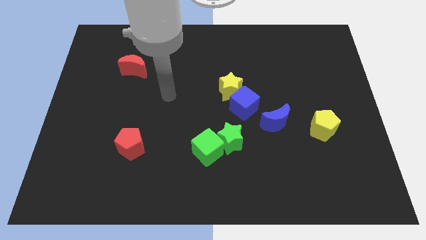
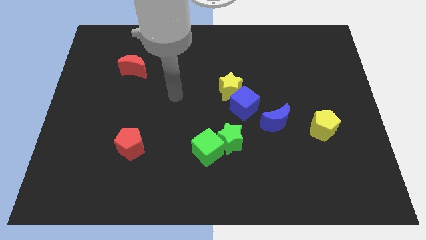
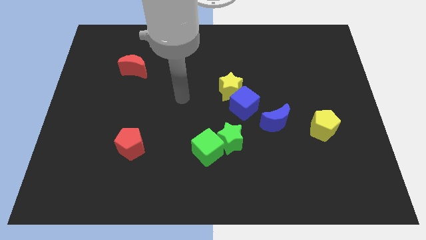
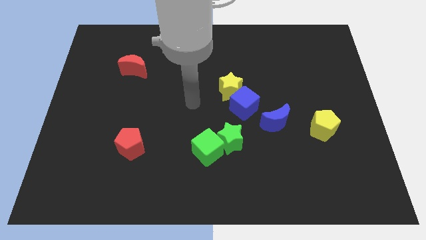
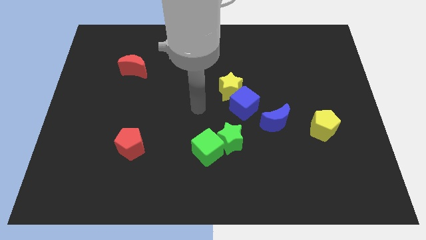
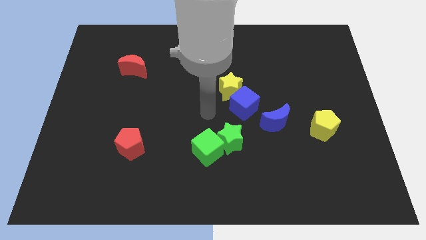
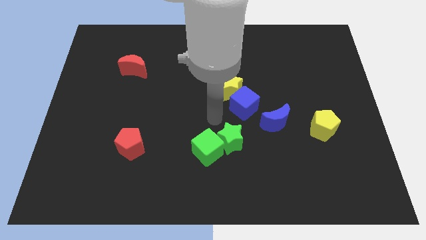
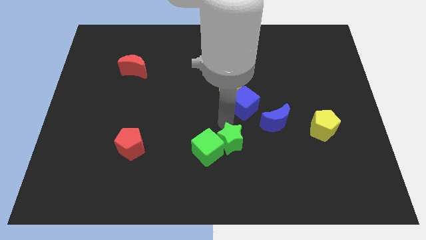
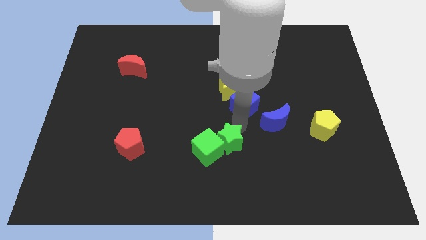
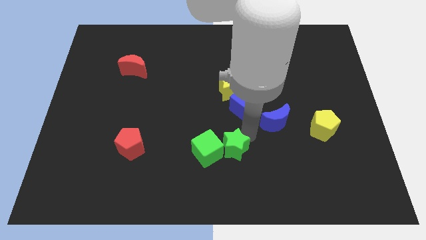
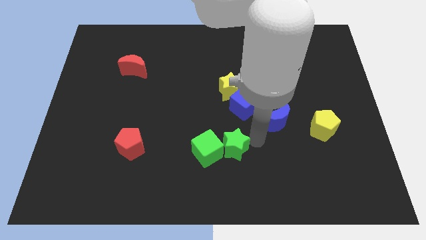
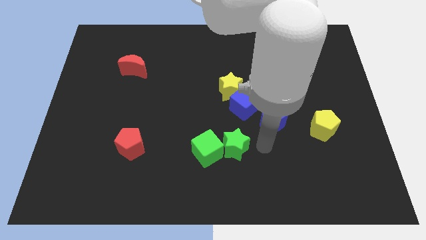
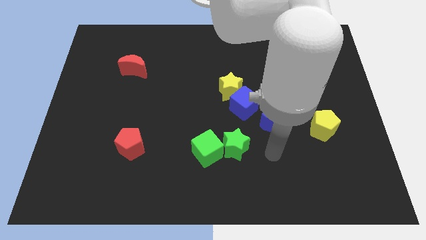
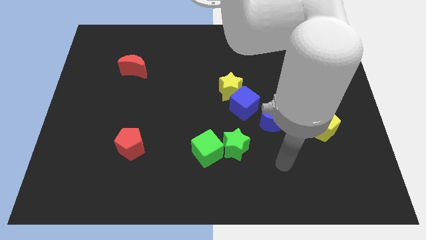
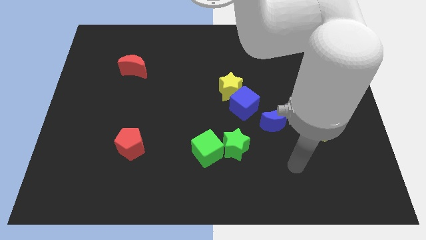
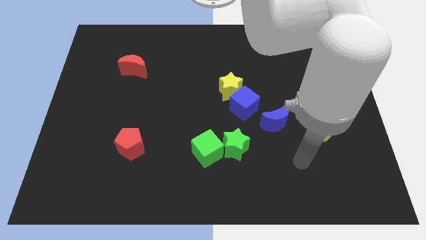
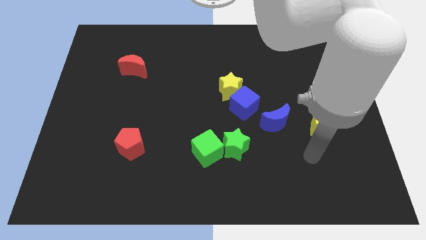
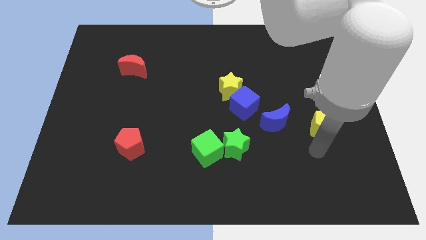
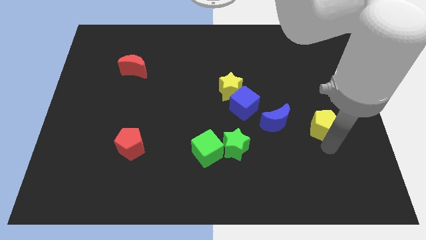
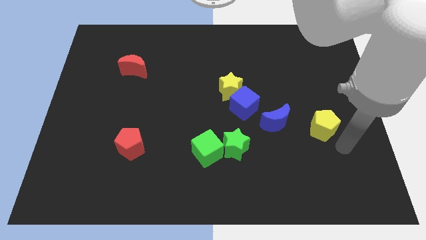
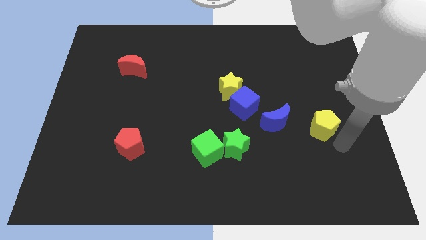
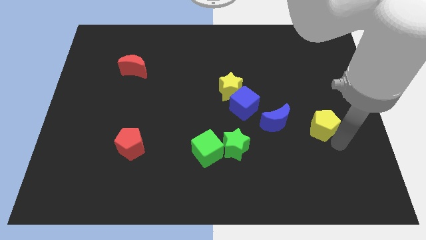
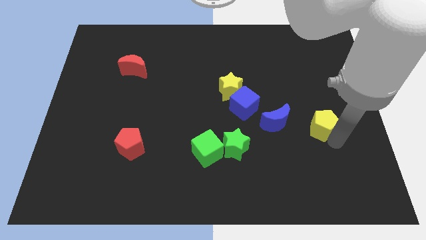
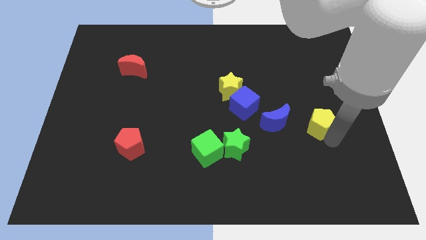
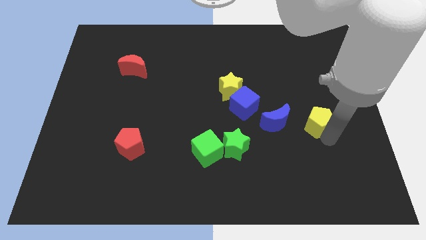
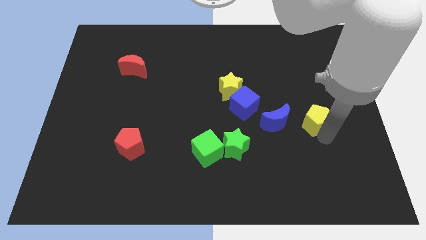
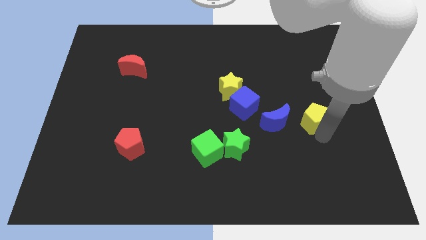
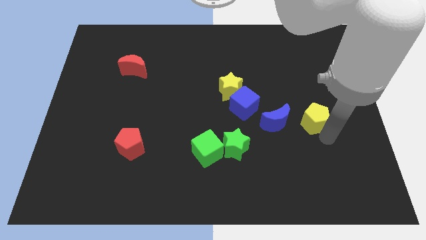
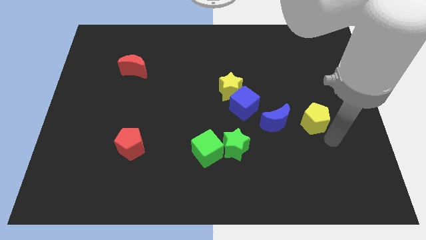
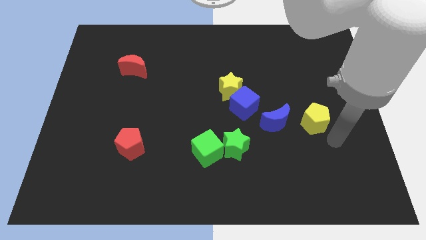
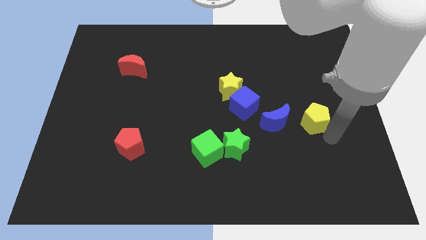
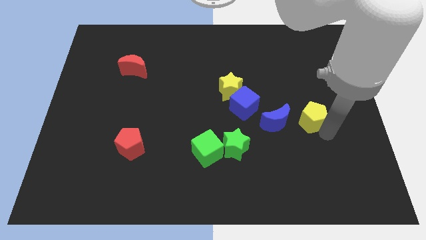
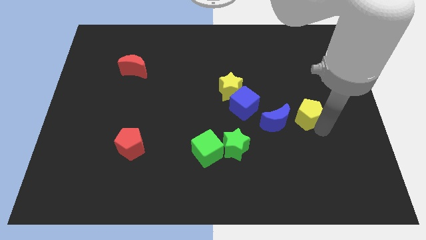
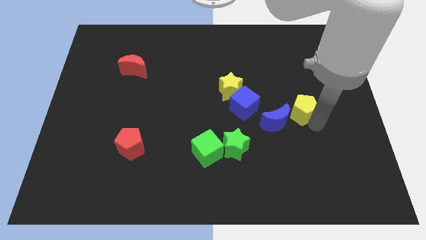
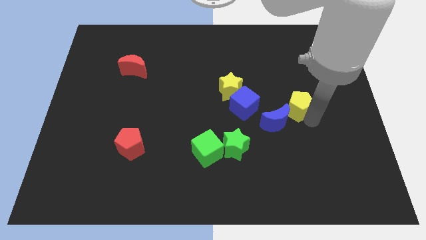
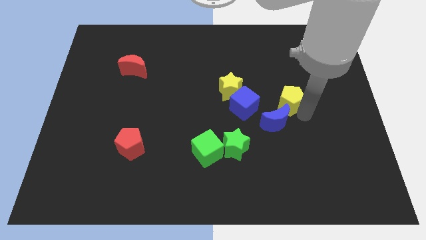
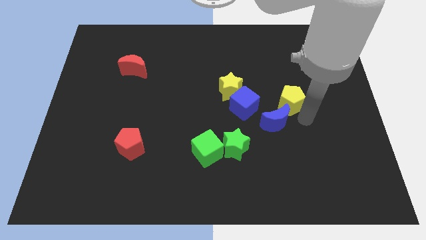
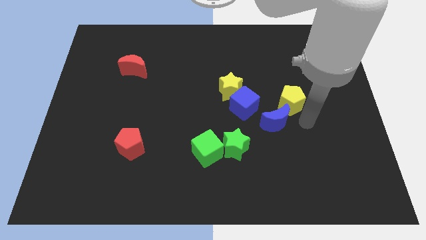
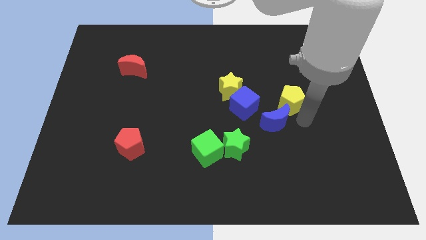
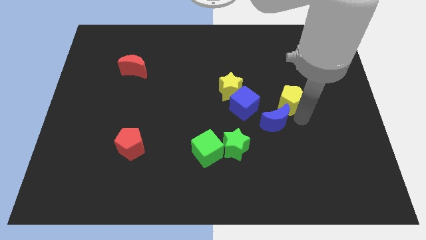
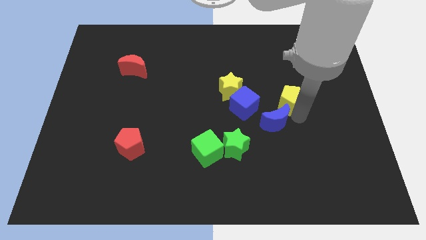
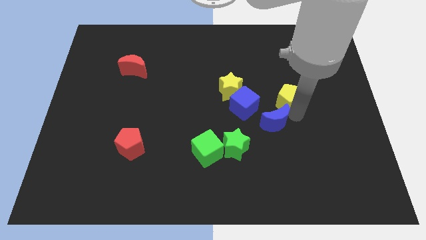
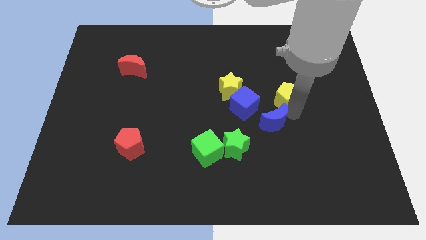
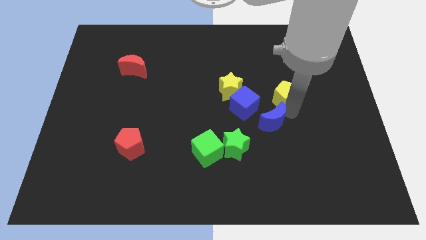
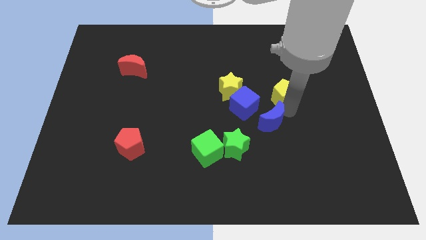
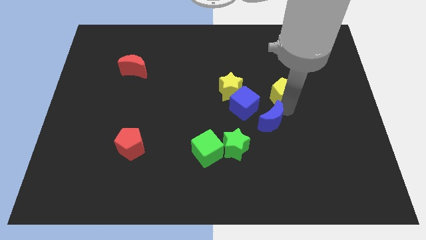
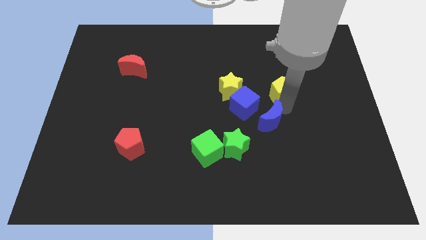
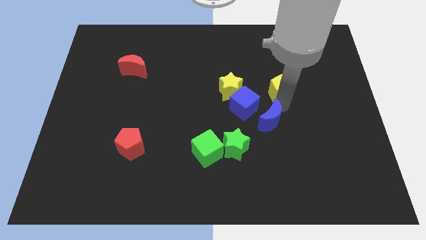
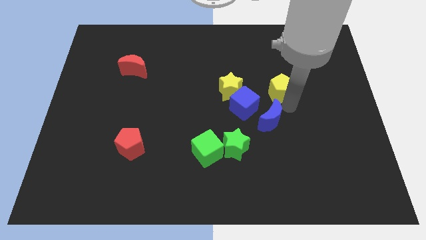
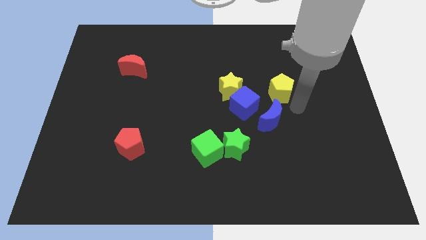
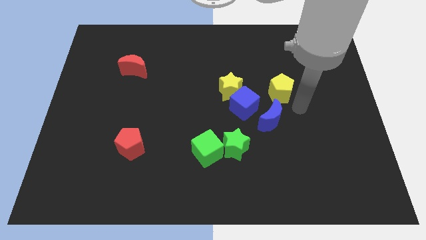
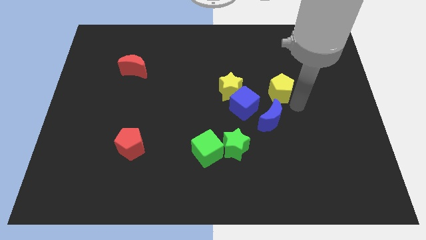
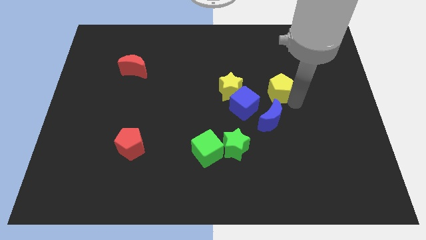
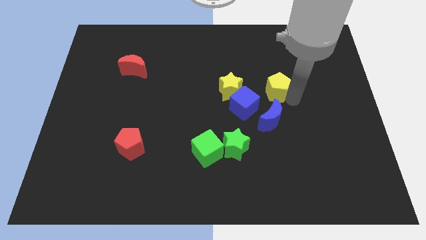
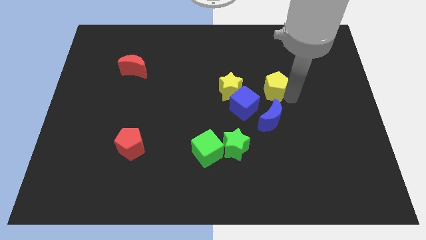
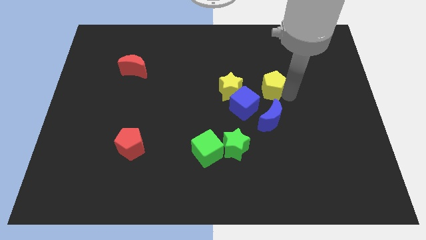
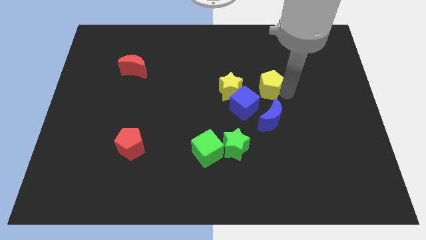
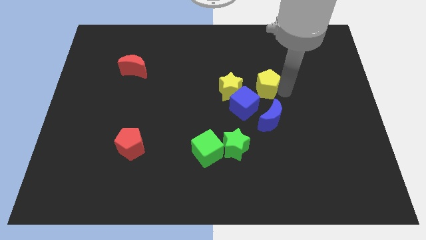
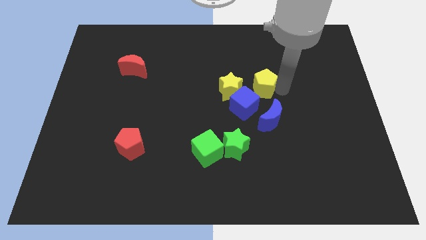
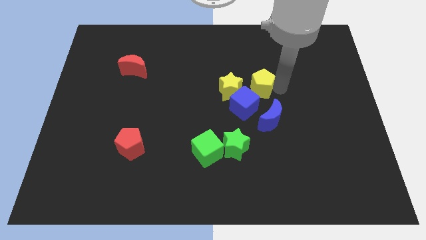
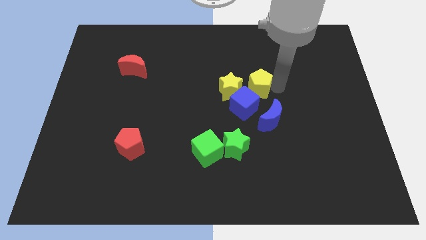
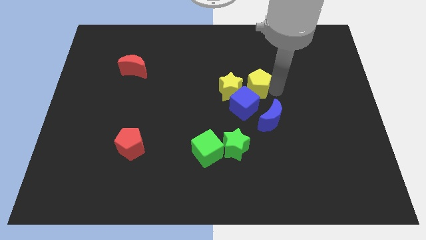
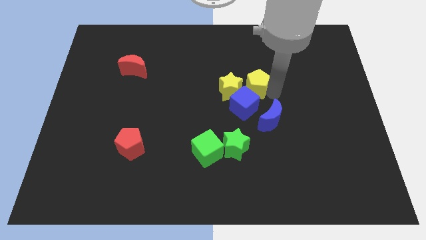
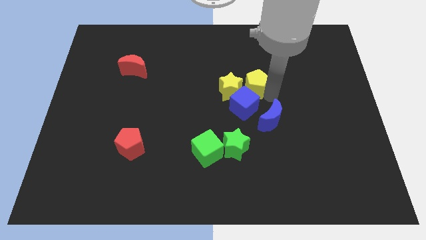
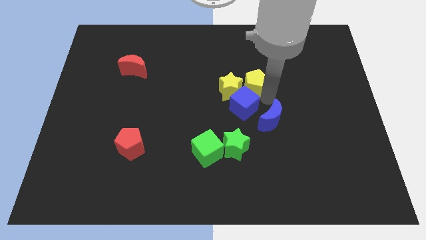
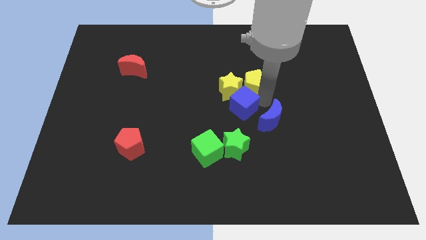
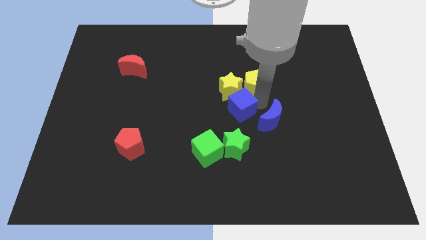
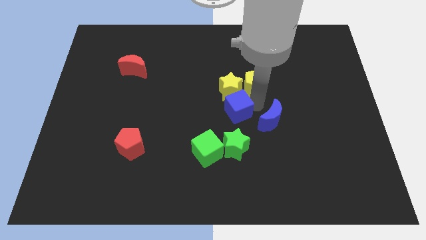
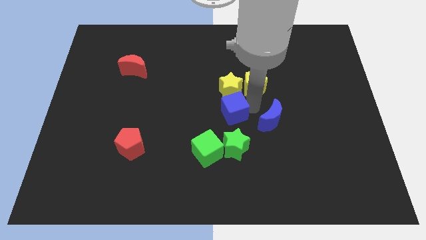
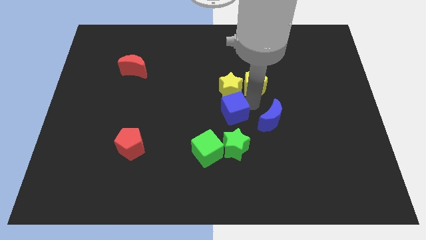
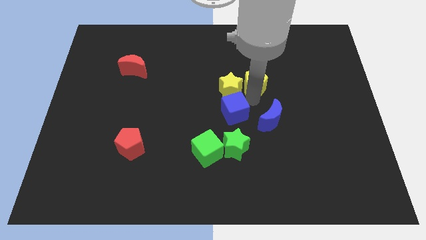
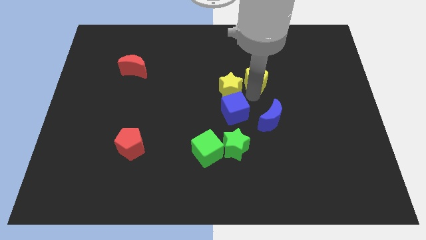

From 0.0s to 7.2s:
push the yellow pentagon up and to the left

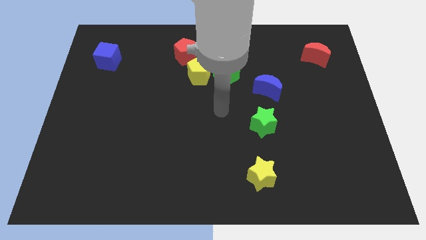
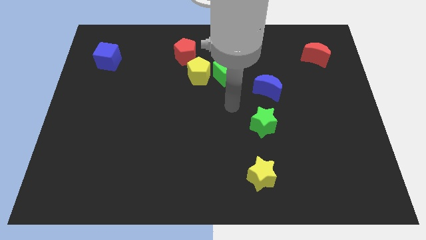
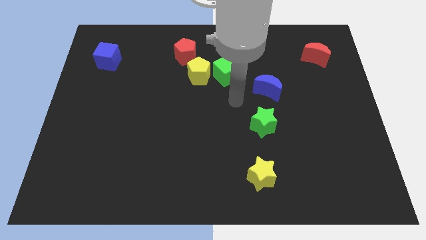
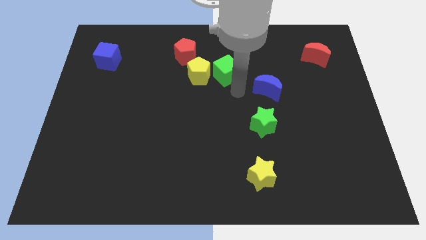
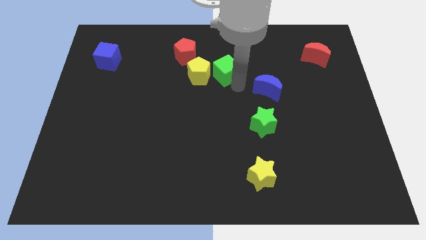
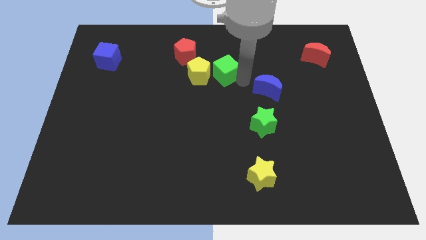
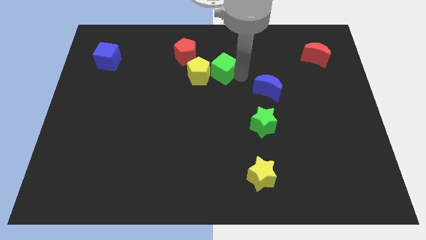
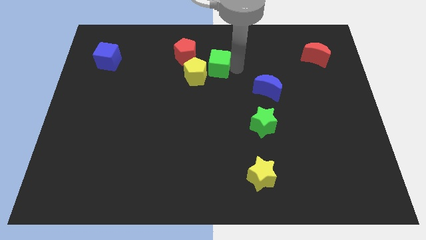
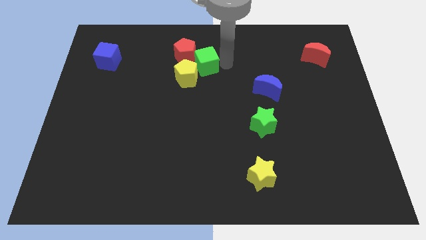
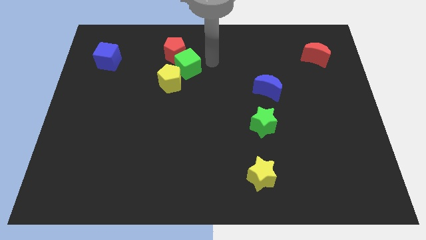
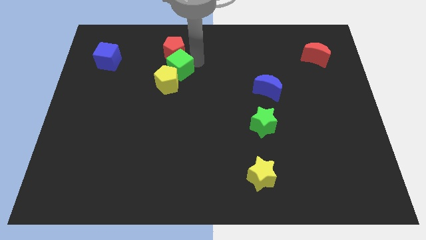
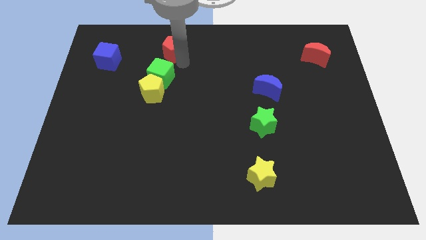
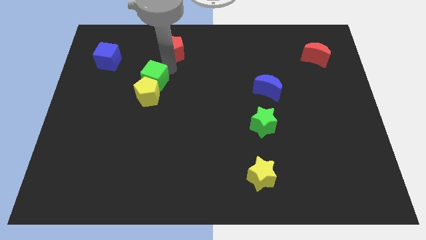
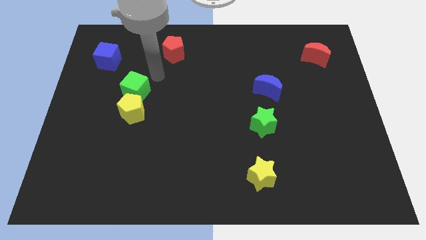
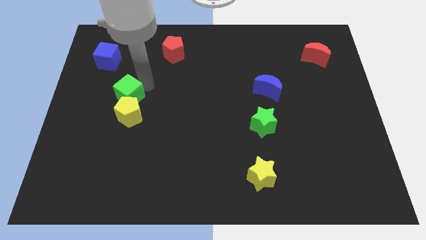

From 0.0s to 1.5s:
slide the yellow pentagon down and to the left diagonally

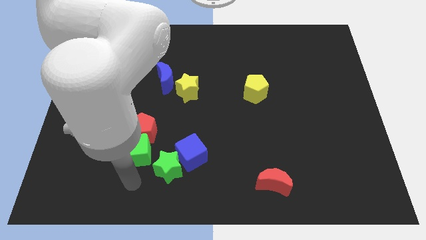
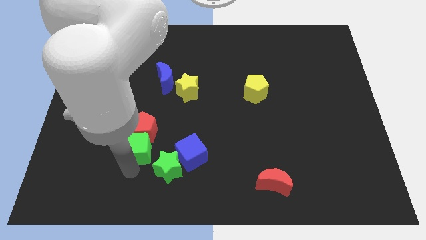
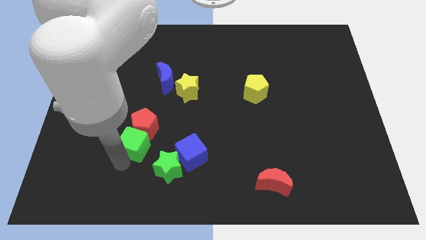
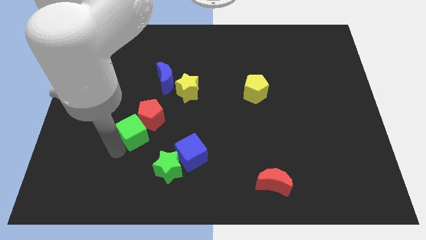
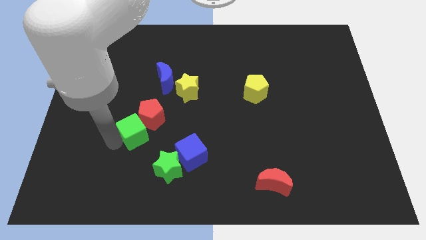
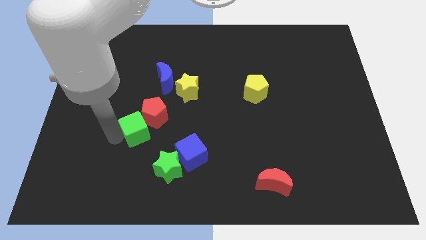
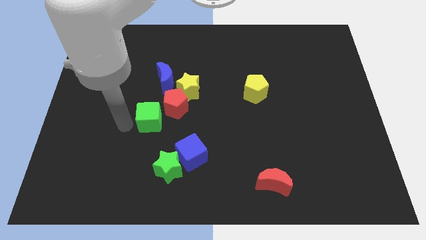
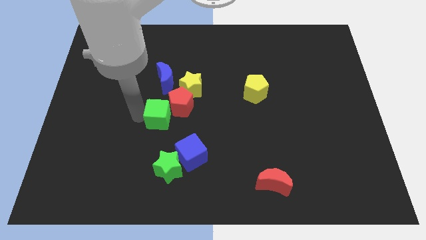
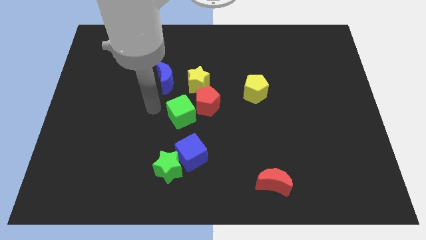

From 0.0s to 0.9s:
move the red pentagon slightly to the right
